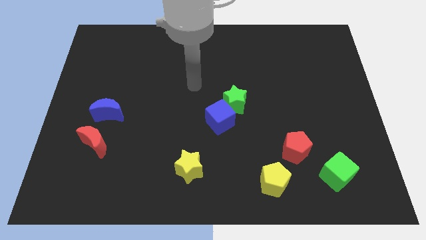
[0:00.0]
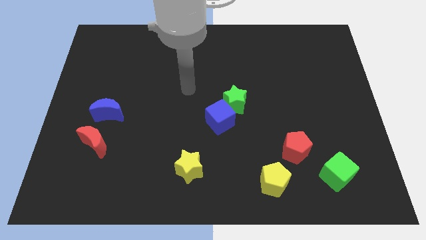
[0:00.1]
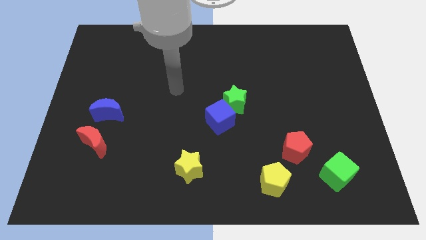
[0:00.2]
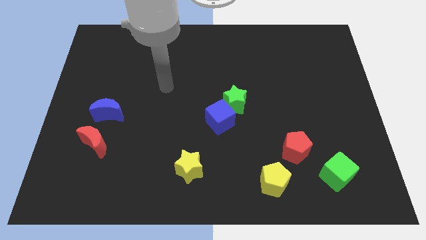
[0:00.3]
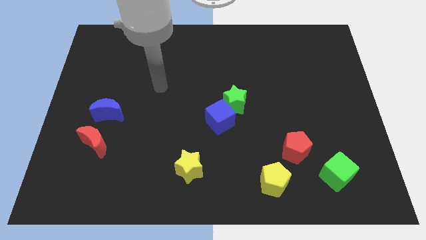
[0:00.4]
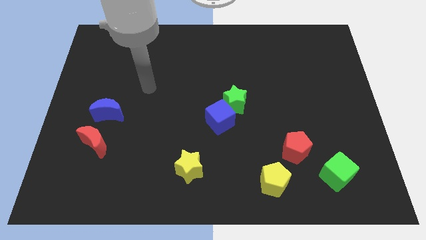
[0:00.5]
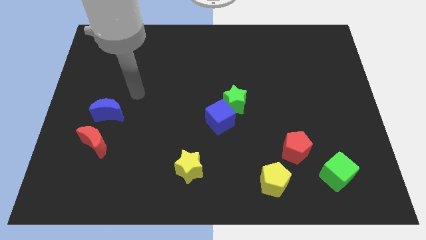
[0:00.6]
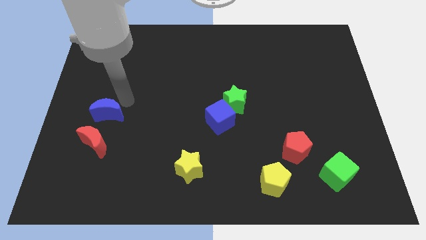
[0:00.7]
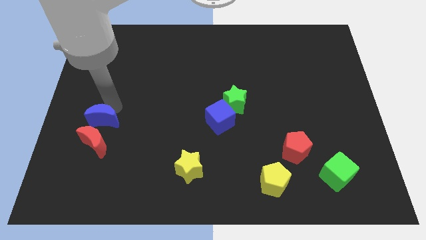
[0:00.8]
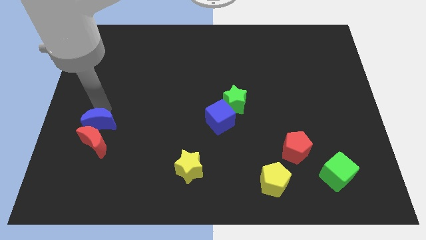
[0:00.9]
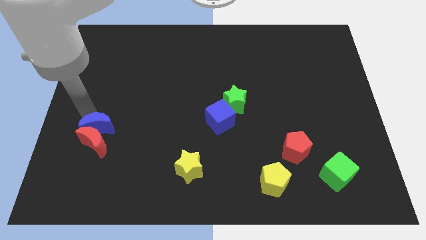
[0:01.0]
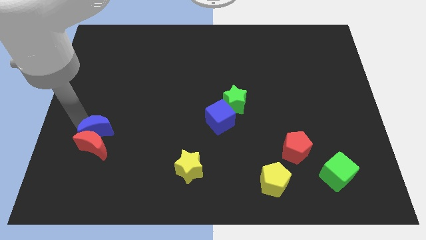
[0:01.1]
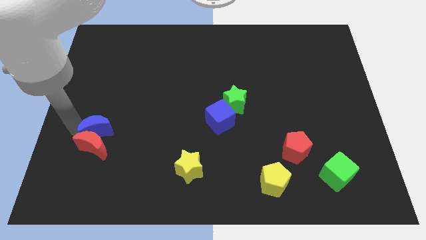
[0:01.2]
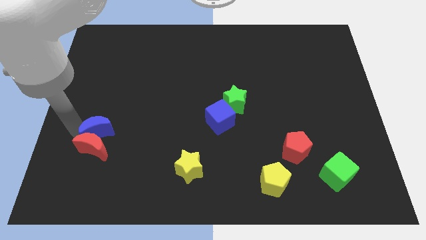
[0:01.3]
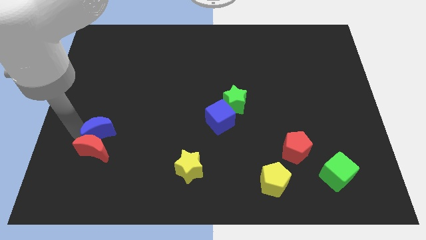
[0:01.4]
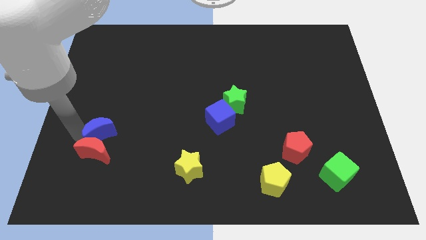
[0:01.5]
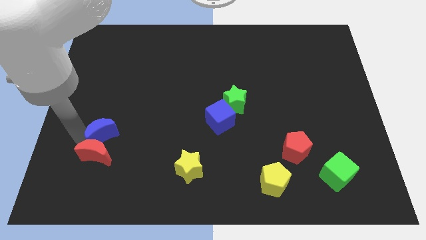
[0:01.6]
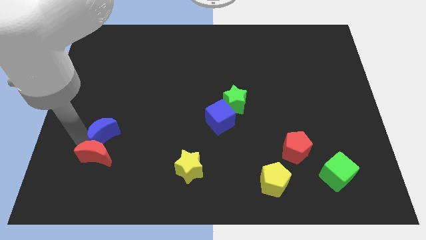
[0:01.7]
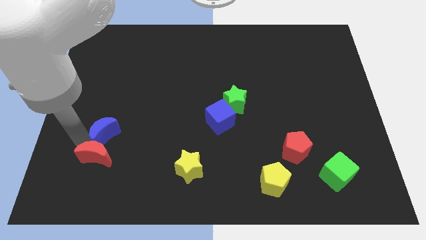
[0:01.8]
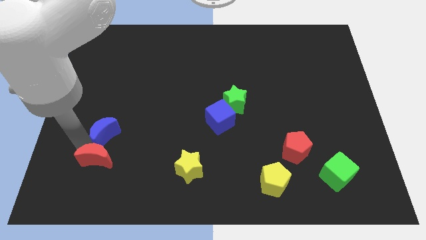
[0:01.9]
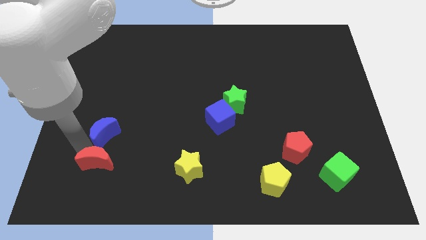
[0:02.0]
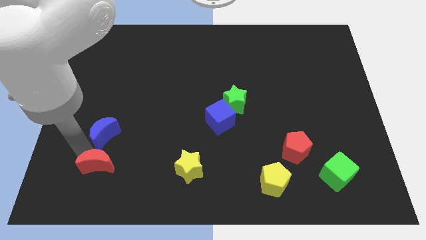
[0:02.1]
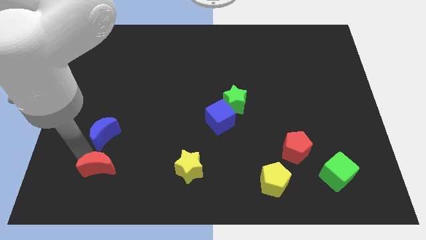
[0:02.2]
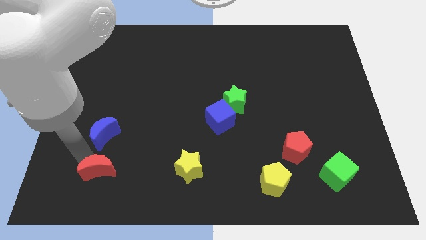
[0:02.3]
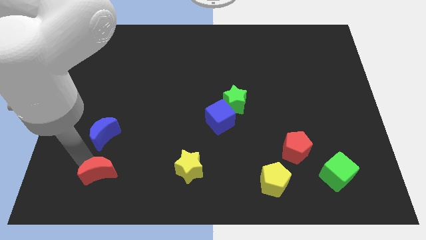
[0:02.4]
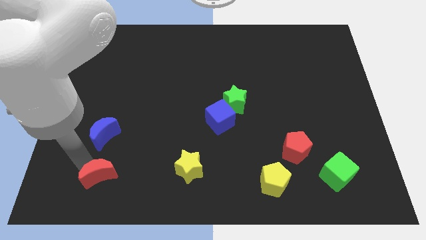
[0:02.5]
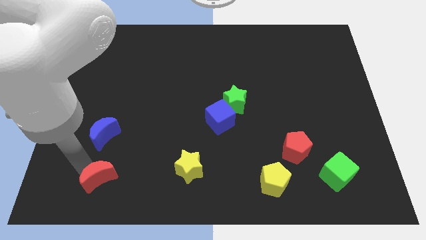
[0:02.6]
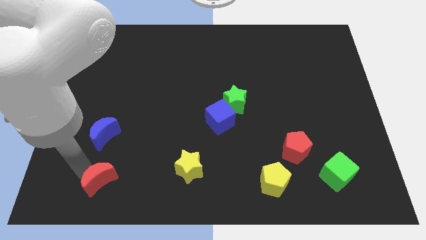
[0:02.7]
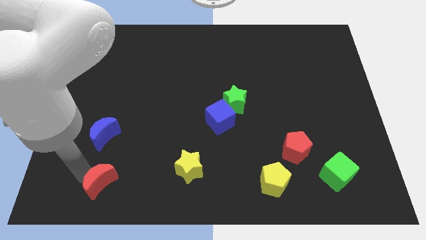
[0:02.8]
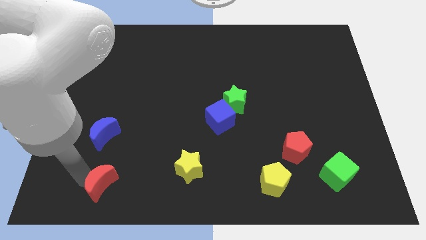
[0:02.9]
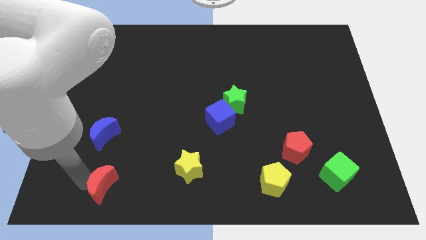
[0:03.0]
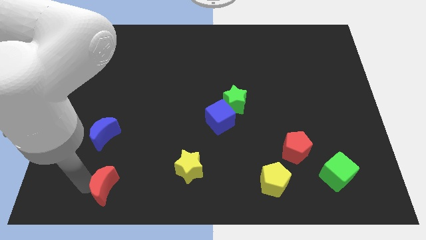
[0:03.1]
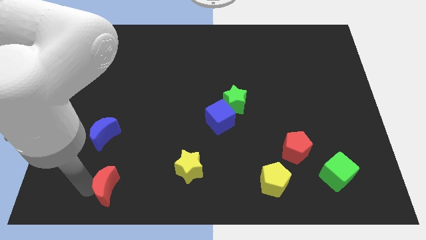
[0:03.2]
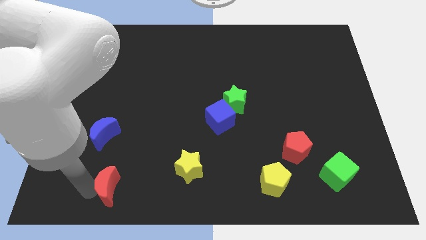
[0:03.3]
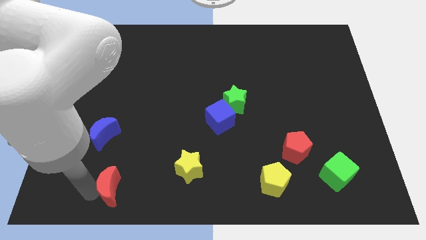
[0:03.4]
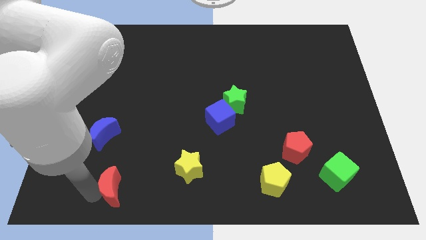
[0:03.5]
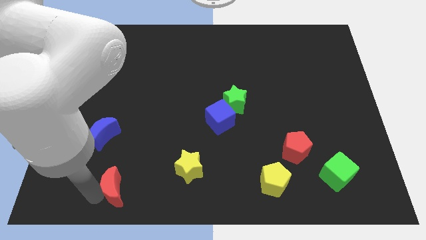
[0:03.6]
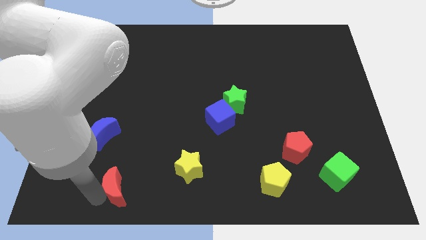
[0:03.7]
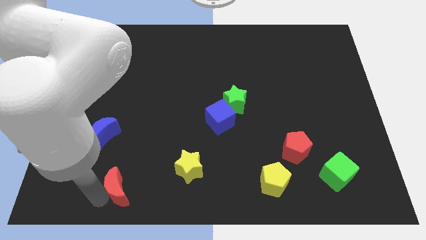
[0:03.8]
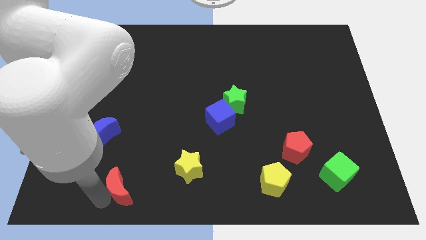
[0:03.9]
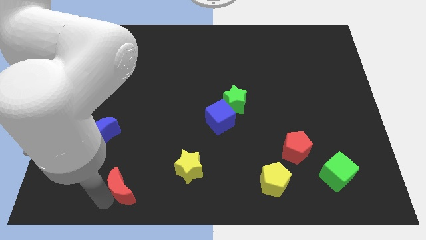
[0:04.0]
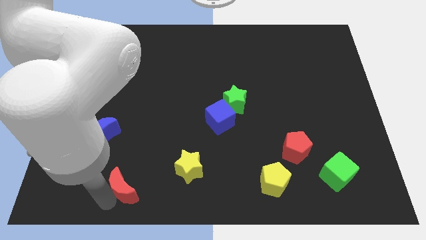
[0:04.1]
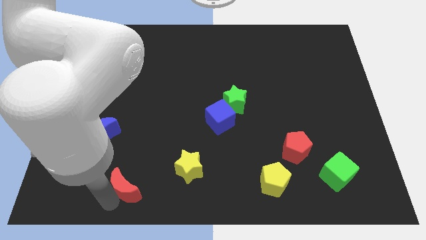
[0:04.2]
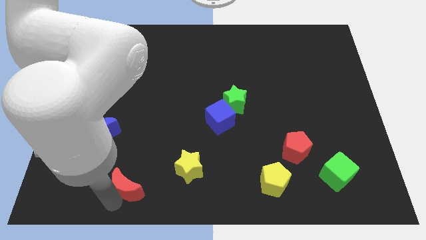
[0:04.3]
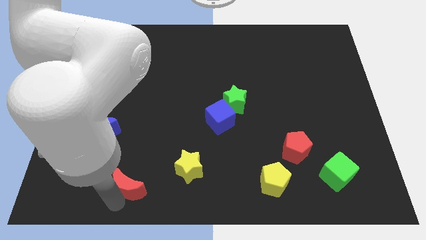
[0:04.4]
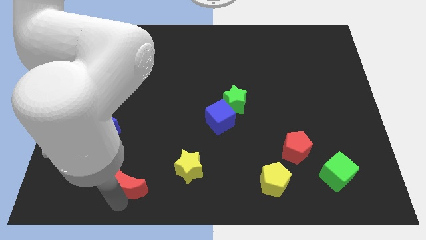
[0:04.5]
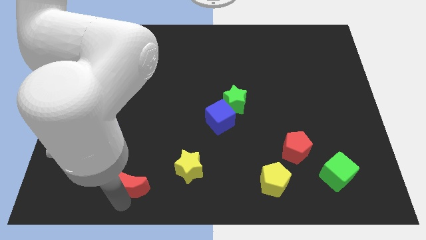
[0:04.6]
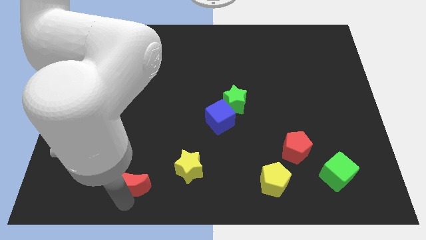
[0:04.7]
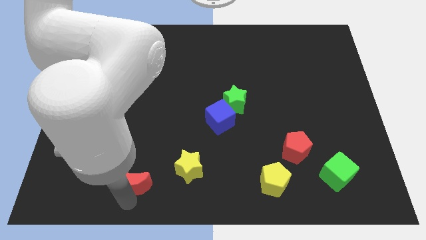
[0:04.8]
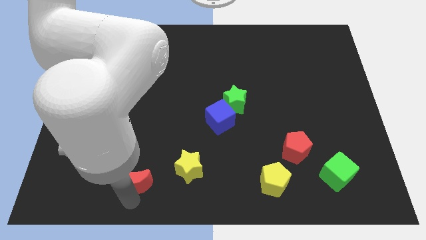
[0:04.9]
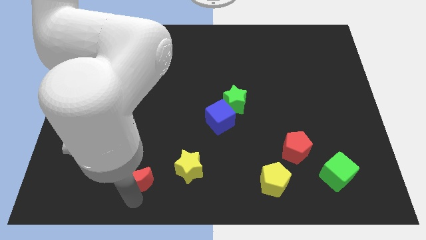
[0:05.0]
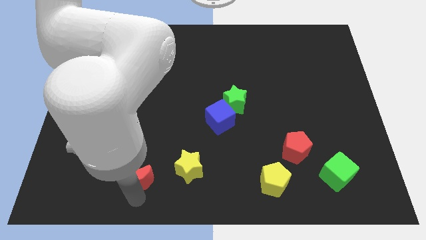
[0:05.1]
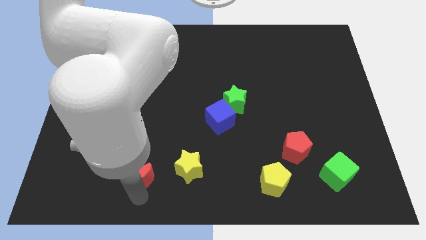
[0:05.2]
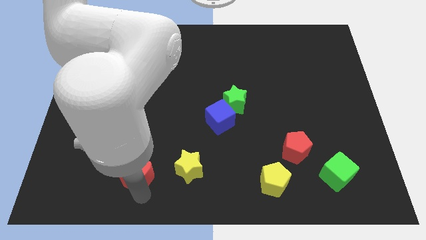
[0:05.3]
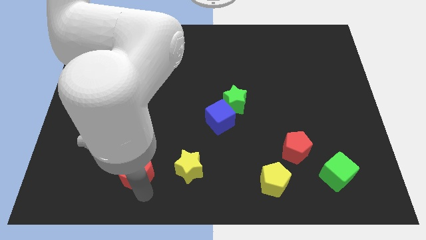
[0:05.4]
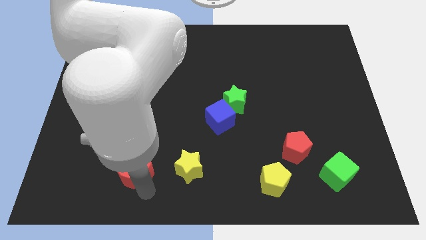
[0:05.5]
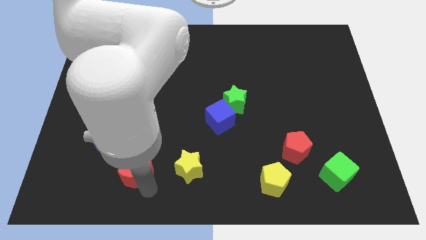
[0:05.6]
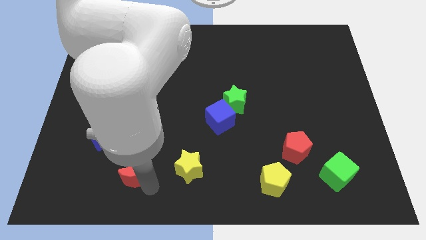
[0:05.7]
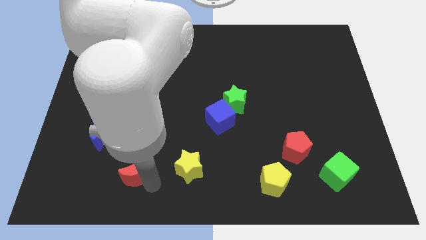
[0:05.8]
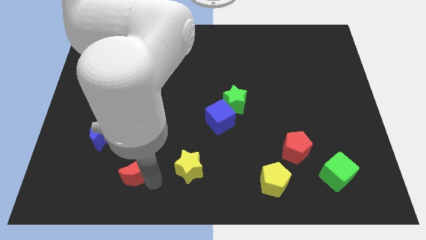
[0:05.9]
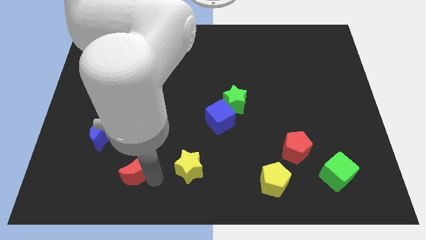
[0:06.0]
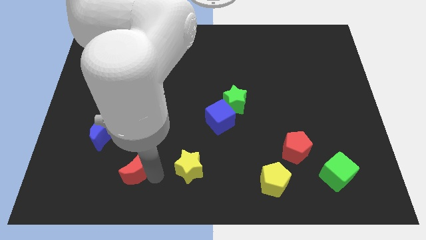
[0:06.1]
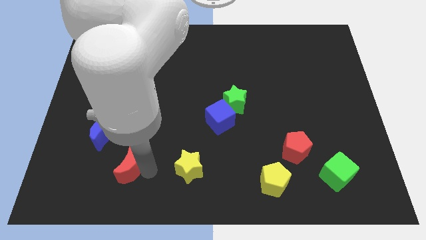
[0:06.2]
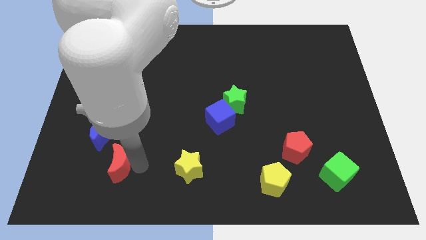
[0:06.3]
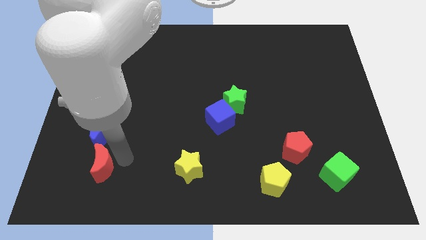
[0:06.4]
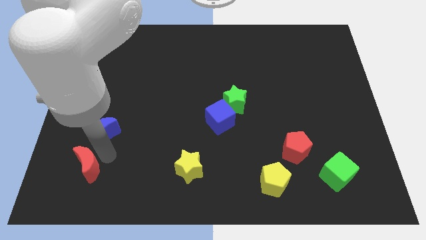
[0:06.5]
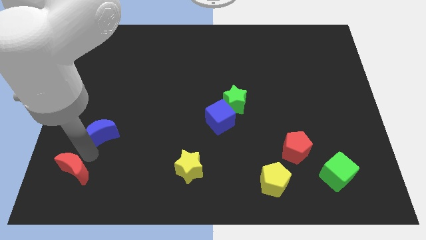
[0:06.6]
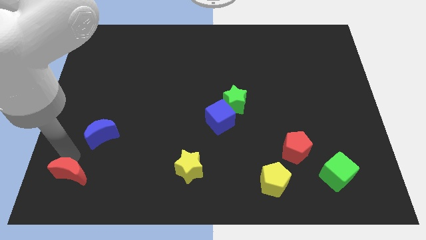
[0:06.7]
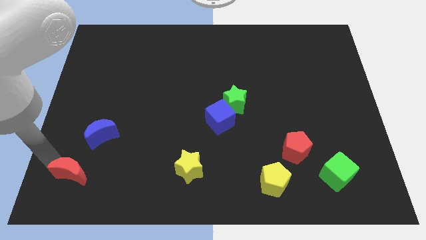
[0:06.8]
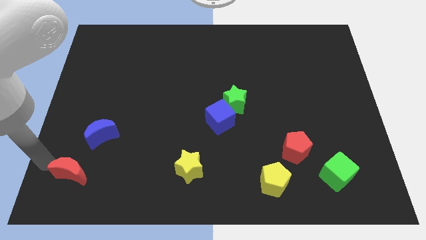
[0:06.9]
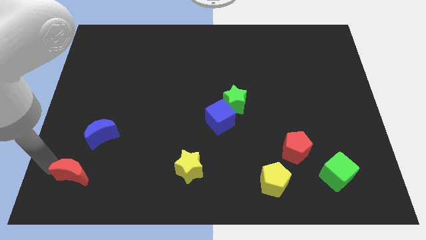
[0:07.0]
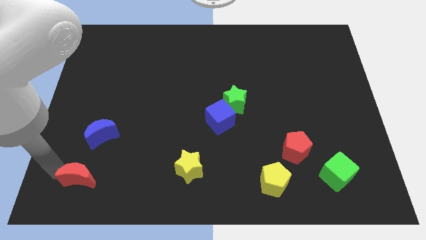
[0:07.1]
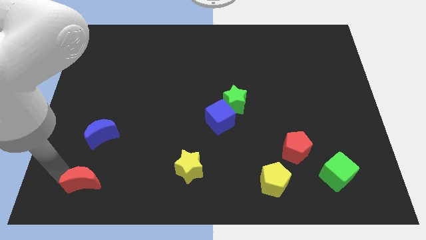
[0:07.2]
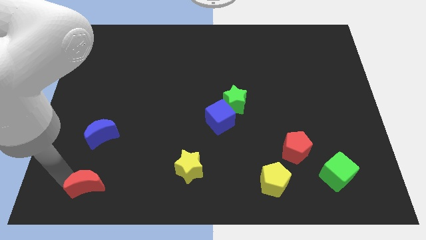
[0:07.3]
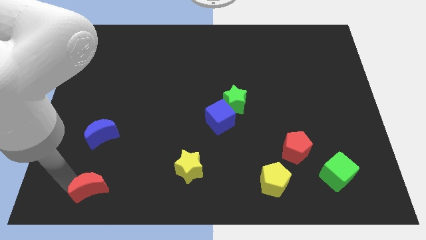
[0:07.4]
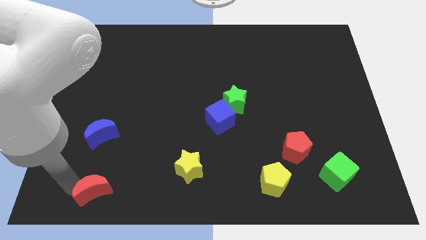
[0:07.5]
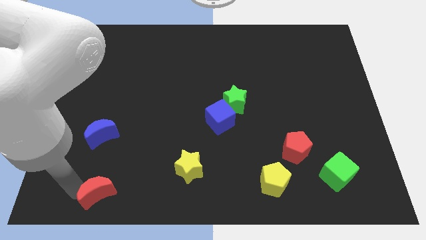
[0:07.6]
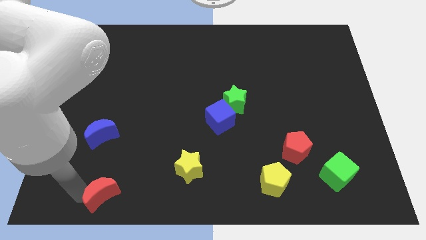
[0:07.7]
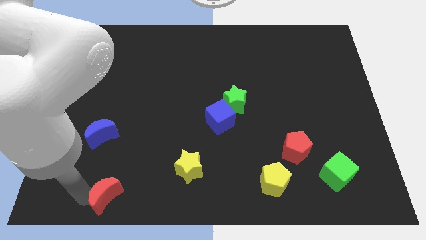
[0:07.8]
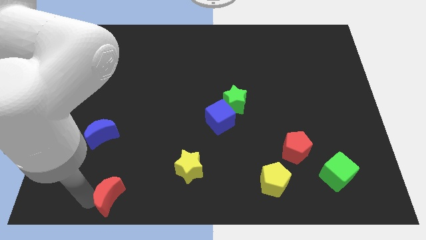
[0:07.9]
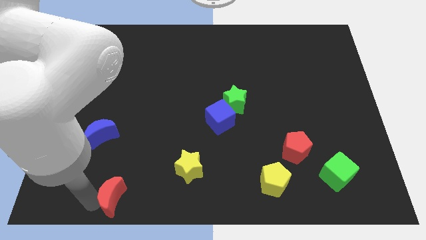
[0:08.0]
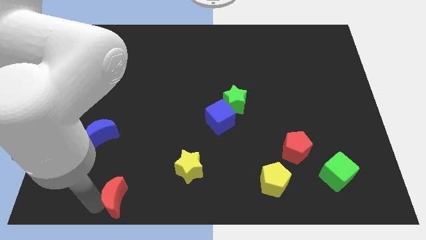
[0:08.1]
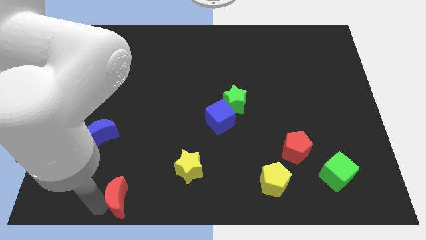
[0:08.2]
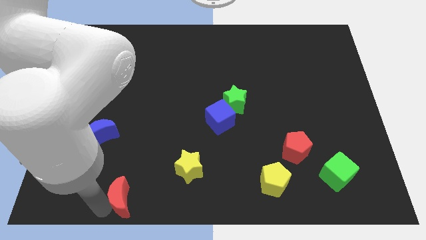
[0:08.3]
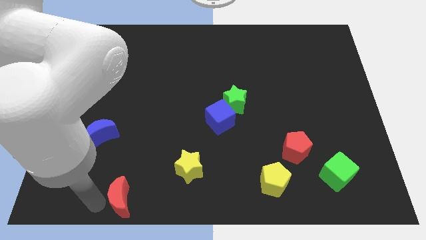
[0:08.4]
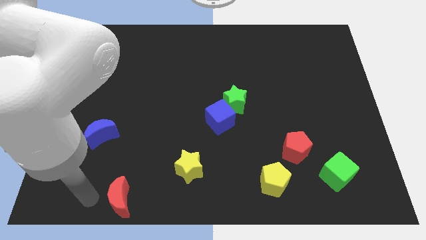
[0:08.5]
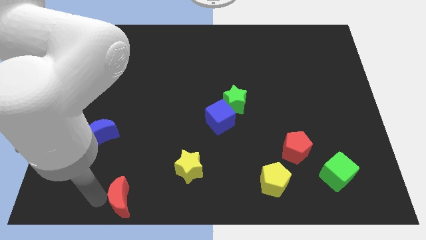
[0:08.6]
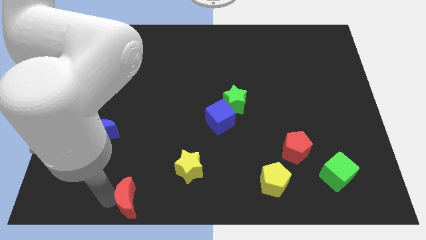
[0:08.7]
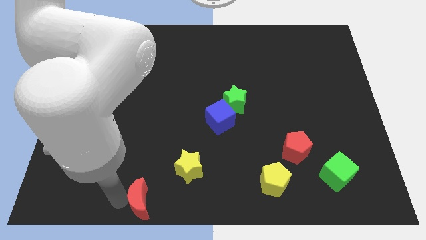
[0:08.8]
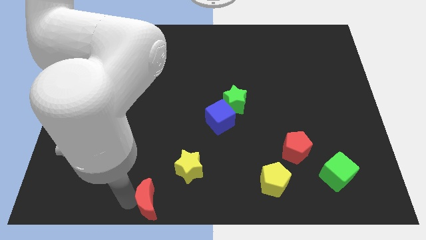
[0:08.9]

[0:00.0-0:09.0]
push the red moon to the bottom
